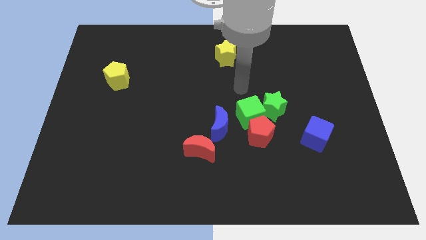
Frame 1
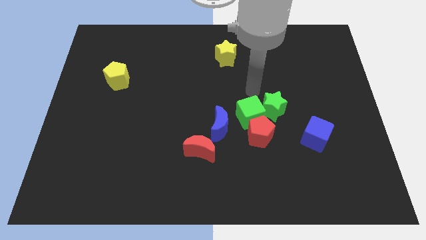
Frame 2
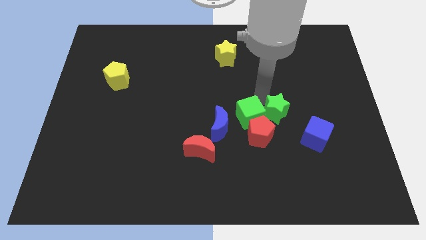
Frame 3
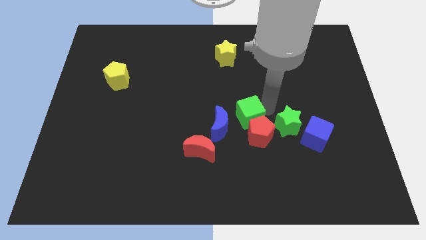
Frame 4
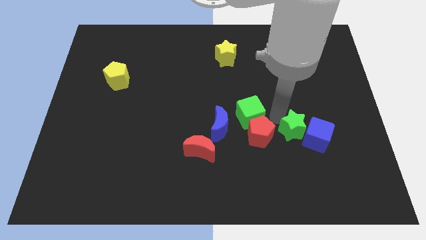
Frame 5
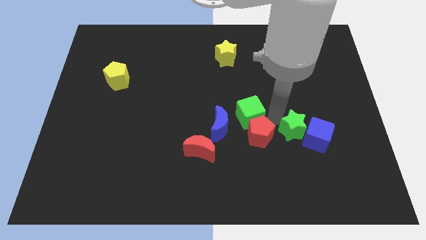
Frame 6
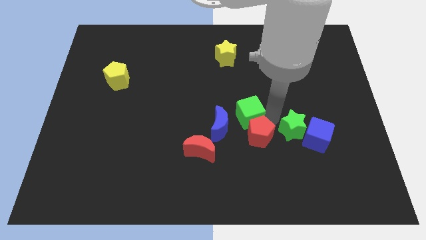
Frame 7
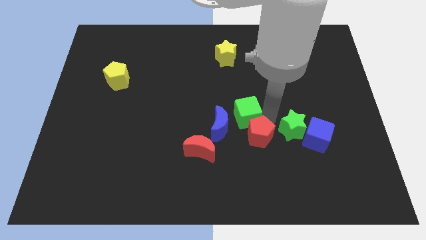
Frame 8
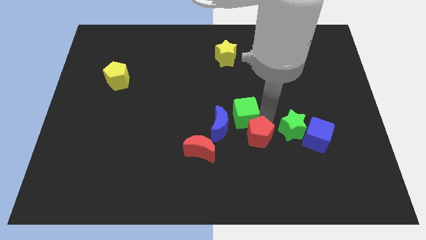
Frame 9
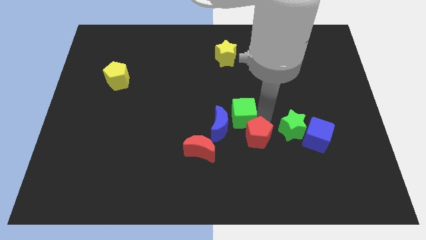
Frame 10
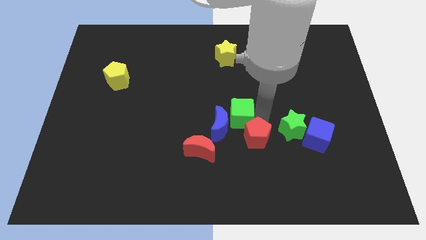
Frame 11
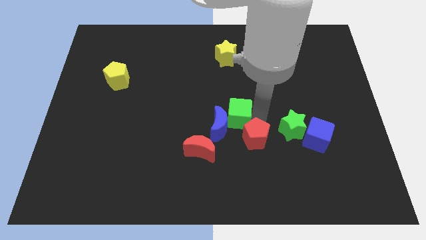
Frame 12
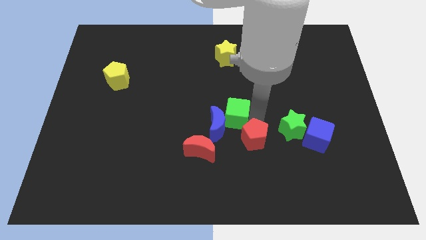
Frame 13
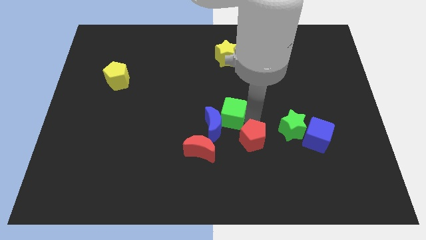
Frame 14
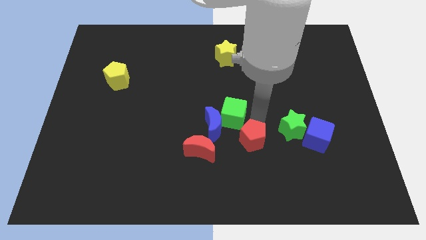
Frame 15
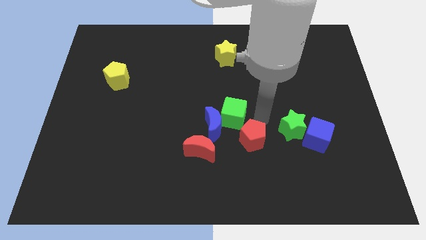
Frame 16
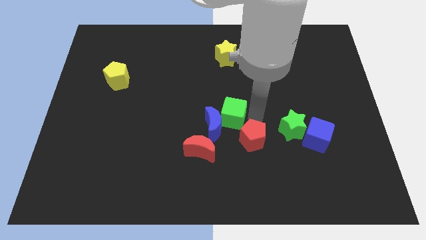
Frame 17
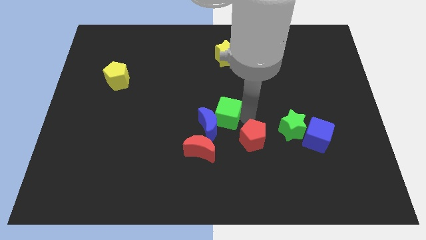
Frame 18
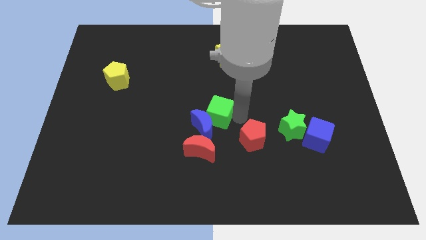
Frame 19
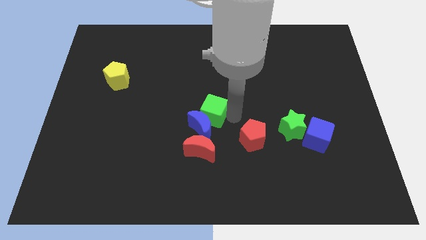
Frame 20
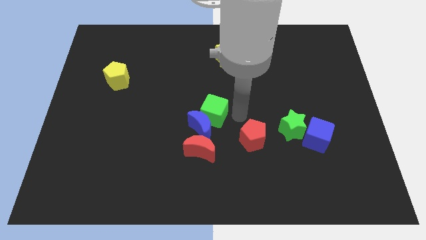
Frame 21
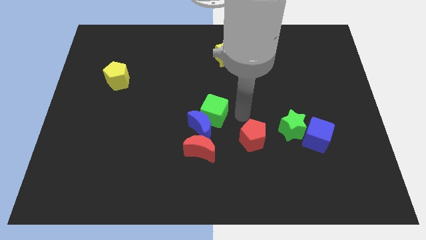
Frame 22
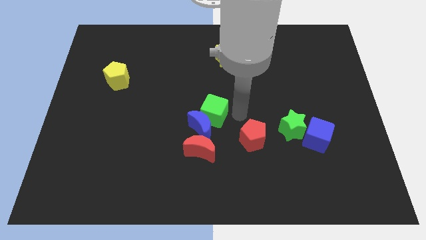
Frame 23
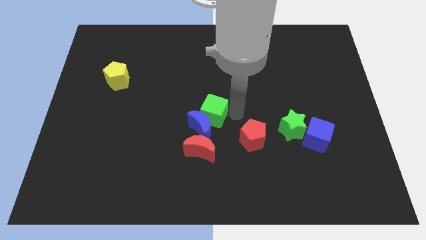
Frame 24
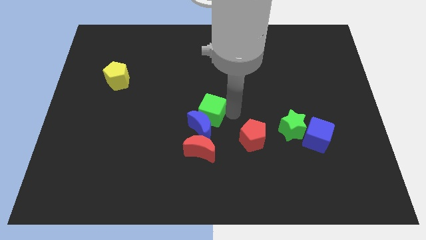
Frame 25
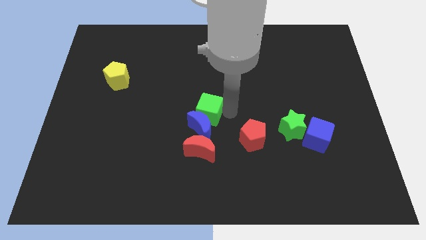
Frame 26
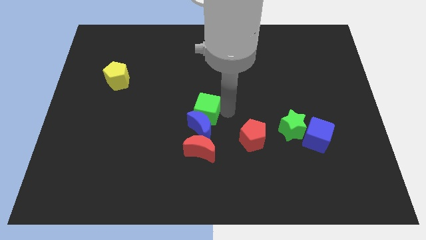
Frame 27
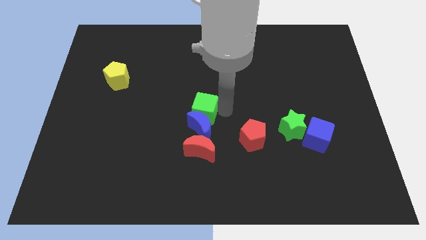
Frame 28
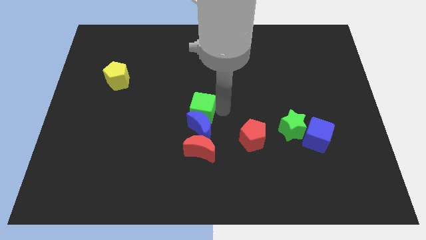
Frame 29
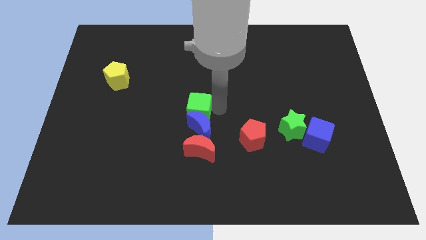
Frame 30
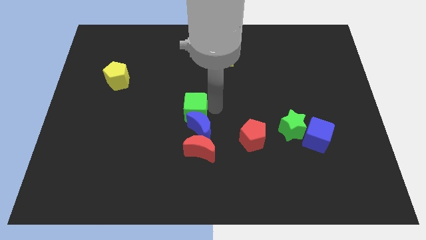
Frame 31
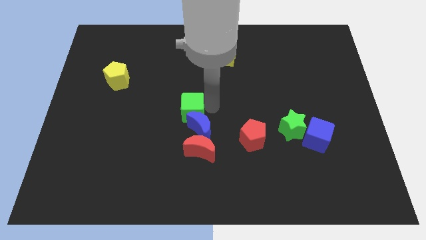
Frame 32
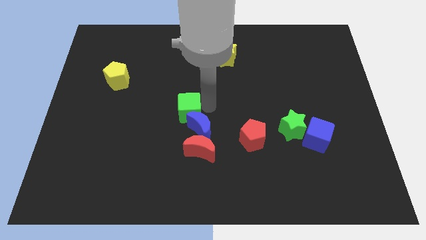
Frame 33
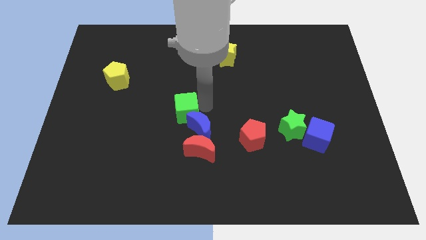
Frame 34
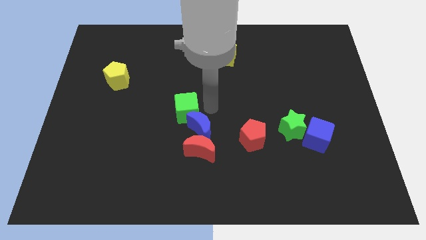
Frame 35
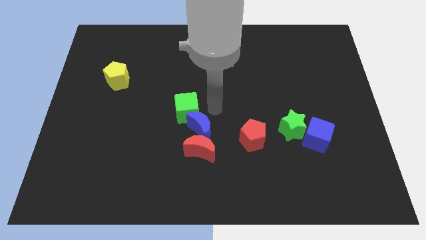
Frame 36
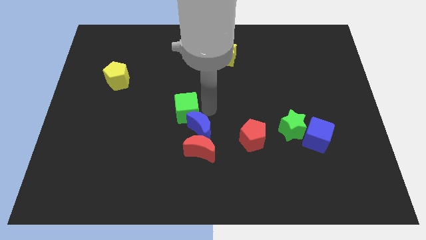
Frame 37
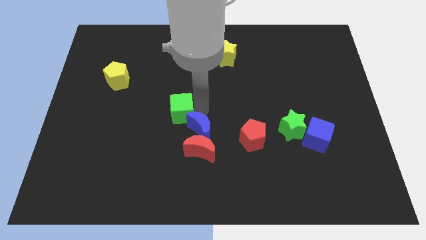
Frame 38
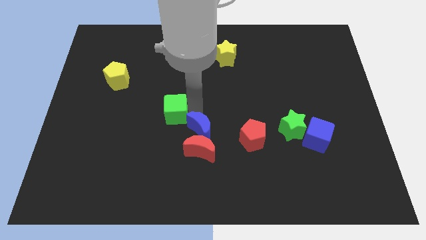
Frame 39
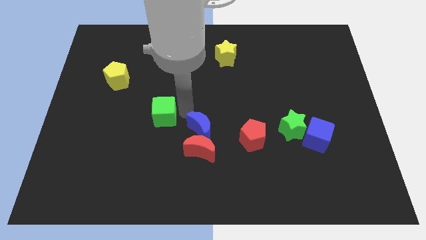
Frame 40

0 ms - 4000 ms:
move the green cube to the left

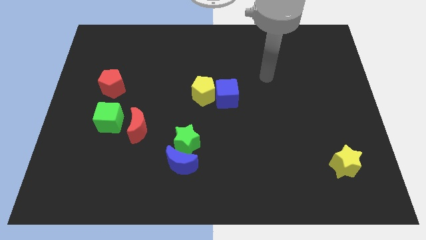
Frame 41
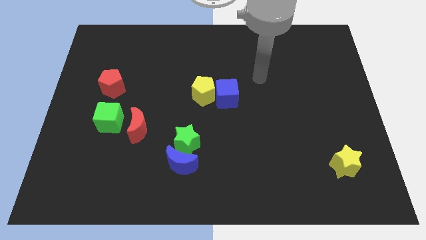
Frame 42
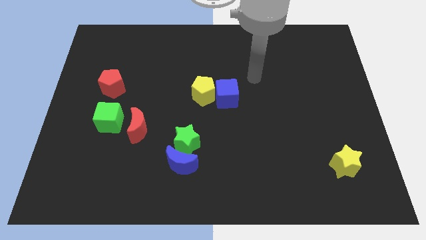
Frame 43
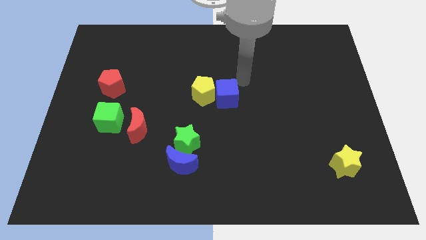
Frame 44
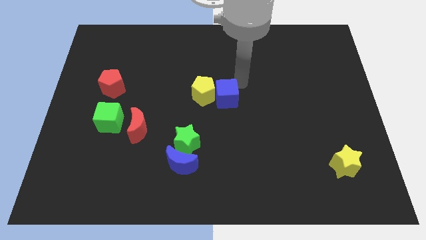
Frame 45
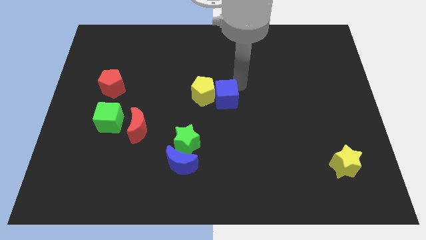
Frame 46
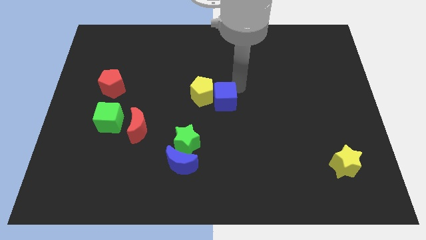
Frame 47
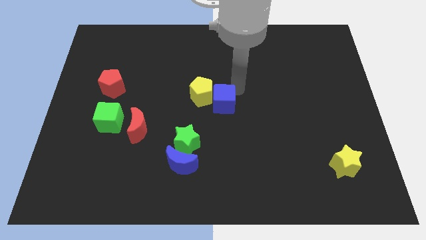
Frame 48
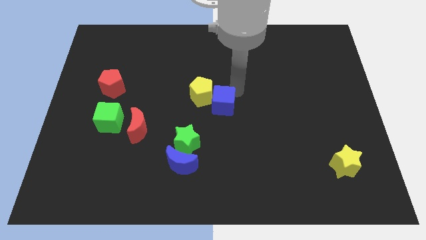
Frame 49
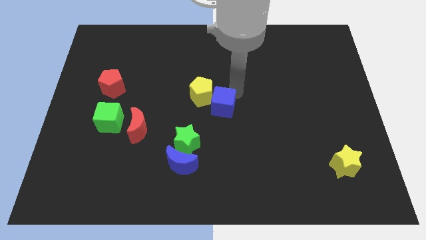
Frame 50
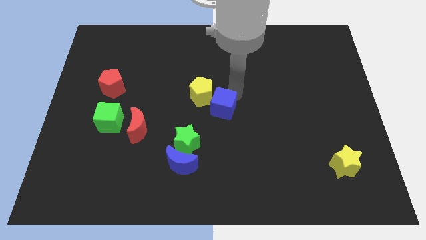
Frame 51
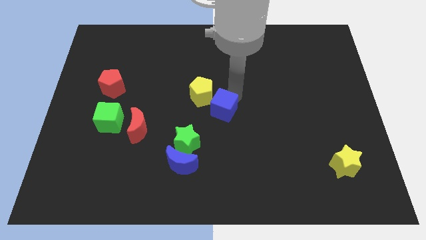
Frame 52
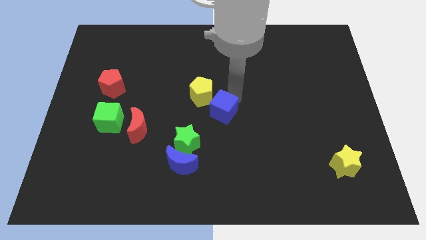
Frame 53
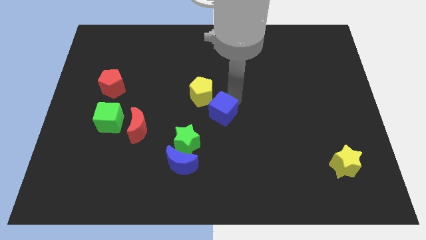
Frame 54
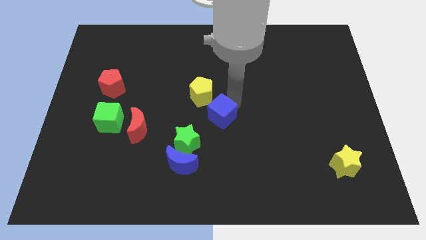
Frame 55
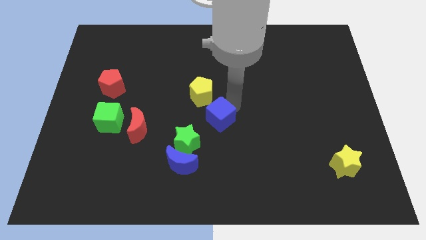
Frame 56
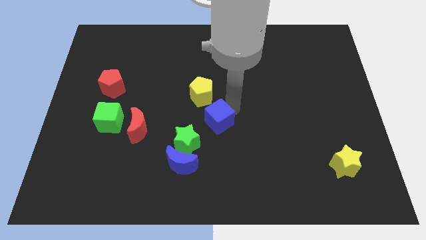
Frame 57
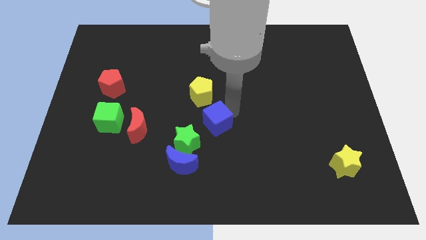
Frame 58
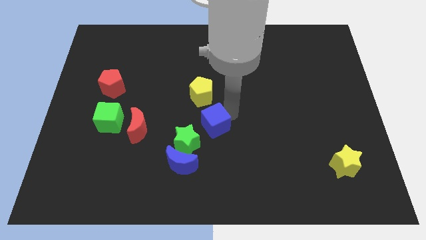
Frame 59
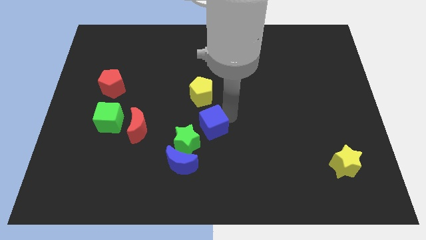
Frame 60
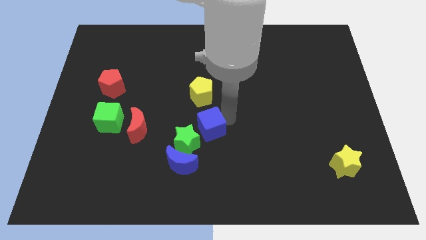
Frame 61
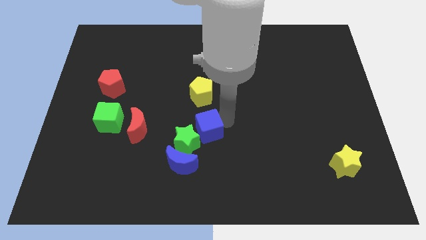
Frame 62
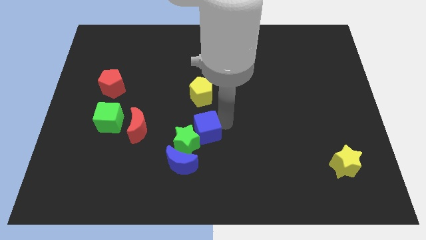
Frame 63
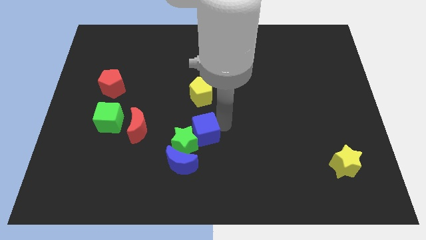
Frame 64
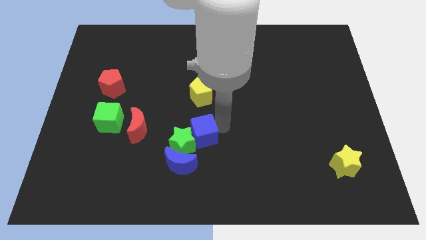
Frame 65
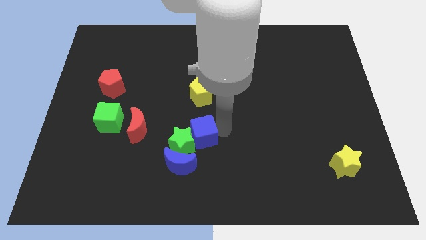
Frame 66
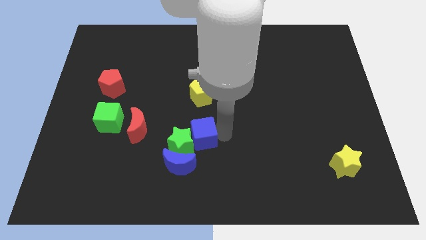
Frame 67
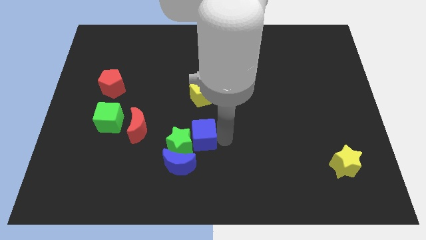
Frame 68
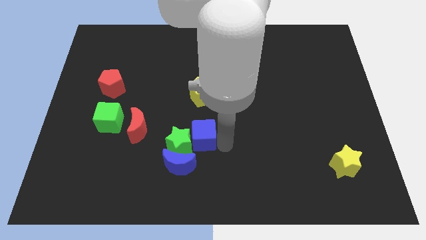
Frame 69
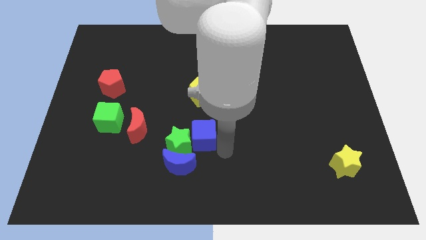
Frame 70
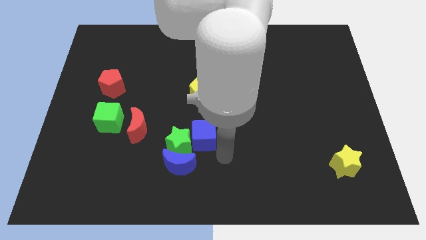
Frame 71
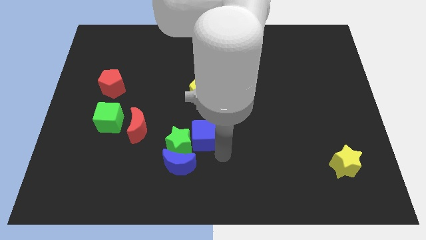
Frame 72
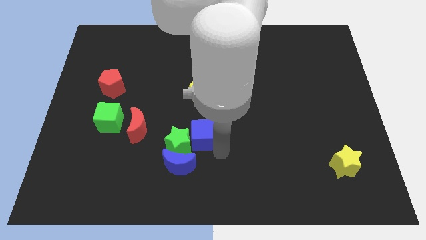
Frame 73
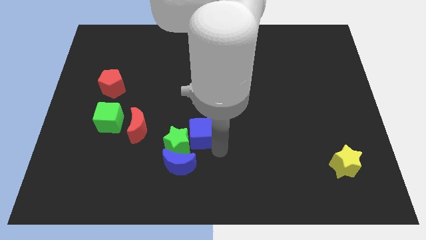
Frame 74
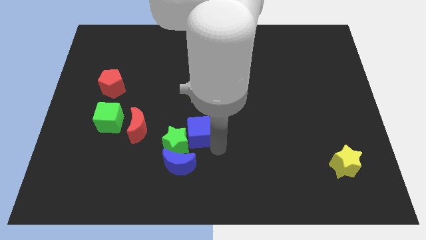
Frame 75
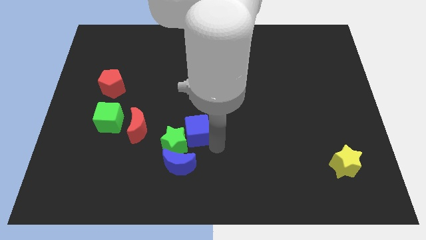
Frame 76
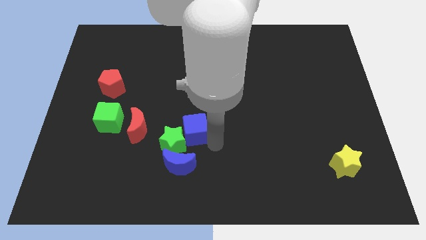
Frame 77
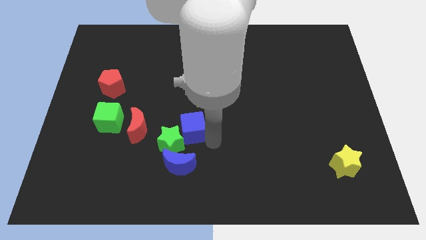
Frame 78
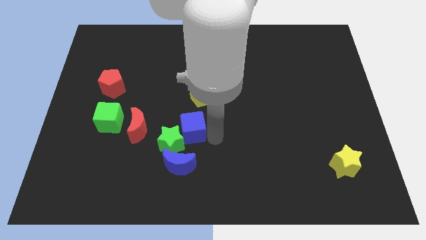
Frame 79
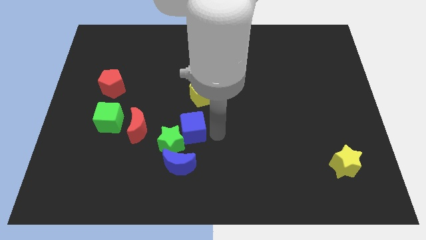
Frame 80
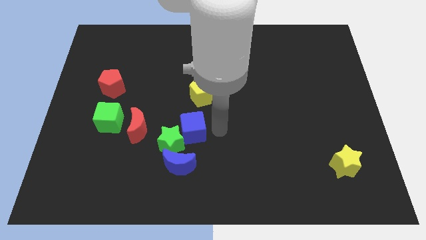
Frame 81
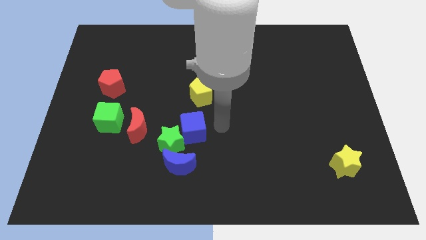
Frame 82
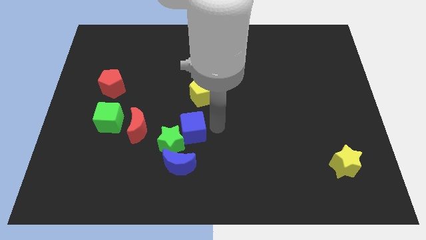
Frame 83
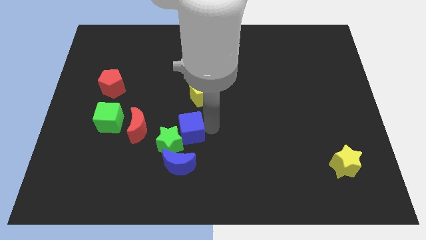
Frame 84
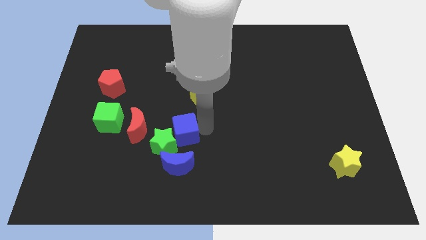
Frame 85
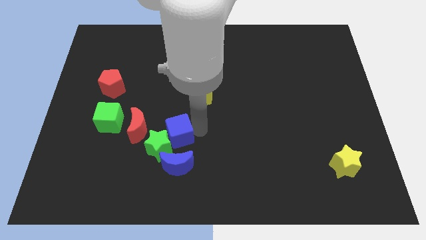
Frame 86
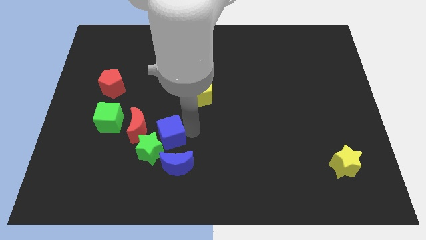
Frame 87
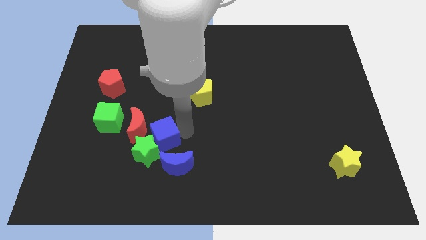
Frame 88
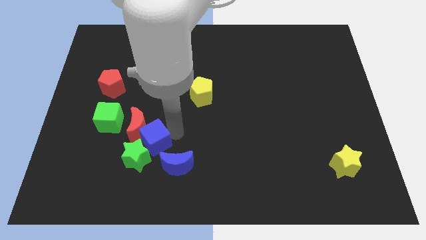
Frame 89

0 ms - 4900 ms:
slide the blue cube downwards and then to the left
